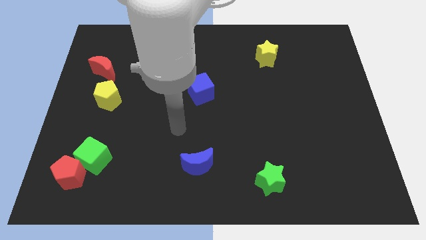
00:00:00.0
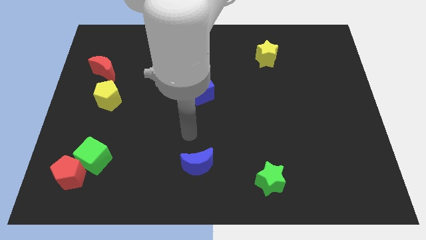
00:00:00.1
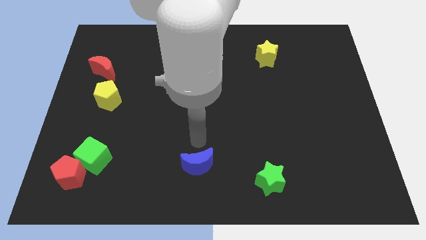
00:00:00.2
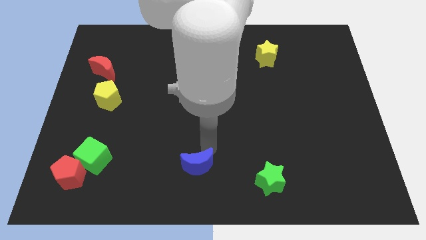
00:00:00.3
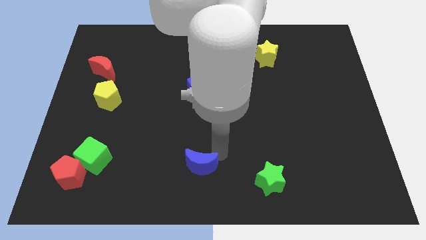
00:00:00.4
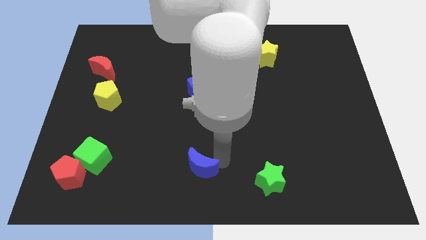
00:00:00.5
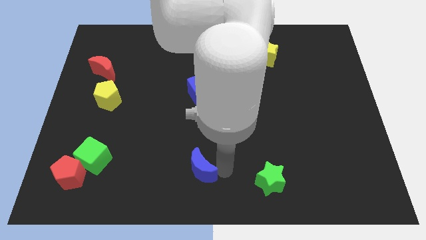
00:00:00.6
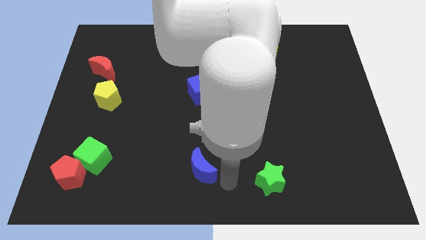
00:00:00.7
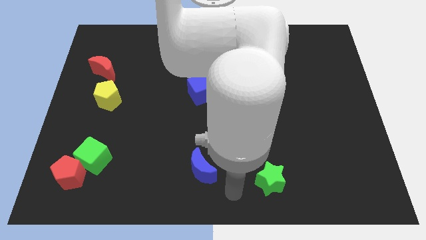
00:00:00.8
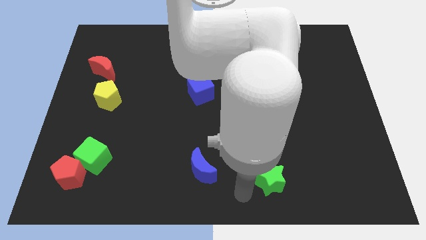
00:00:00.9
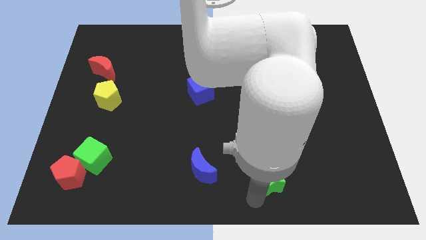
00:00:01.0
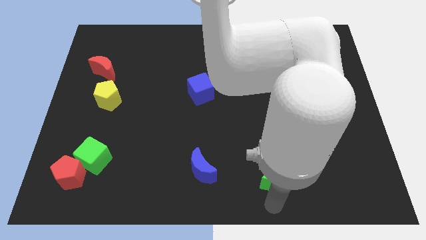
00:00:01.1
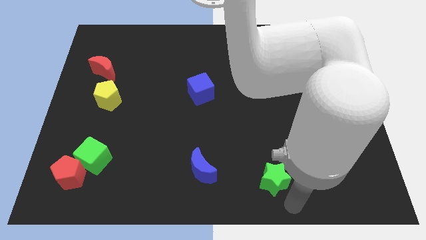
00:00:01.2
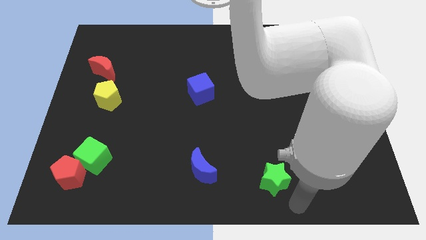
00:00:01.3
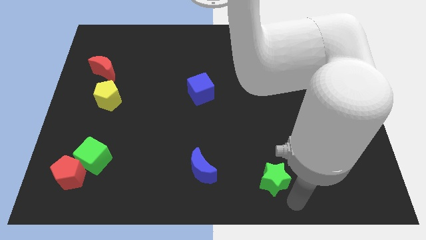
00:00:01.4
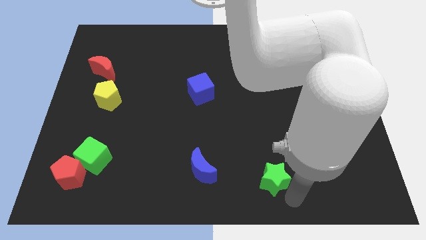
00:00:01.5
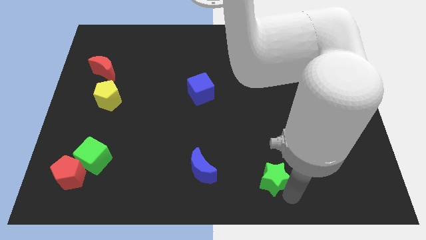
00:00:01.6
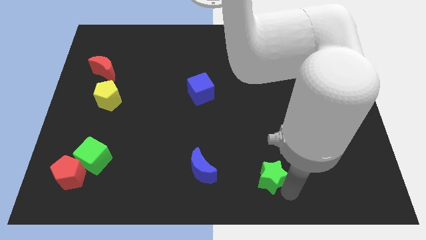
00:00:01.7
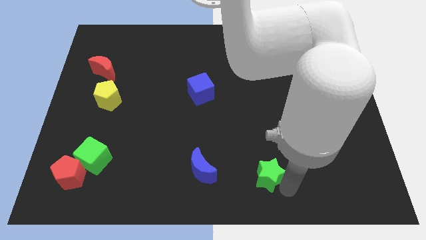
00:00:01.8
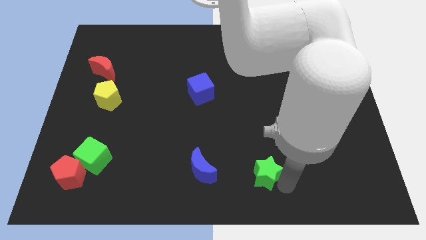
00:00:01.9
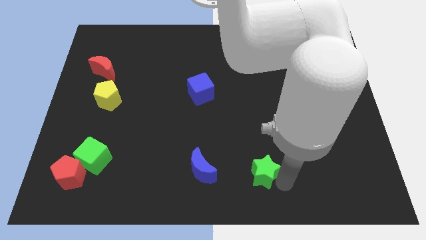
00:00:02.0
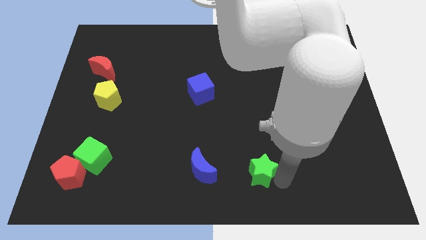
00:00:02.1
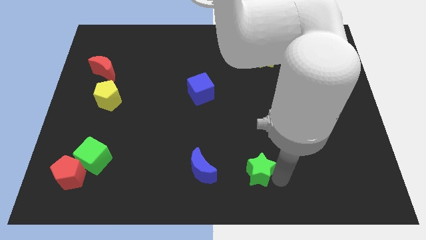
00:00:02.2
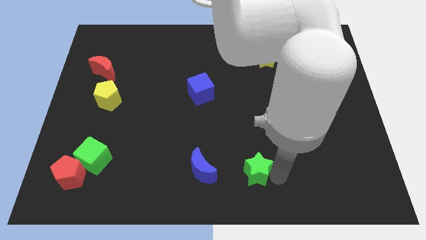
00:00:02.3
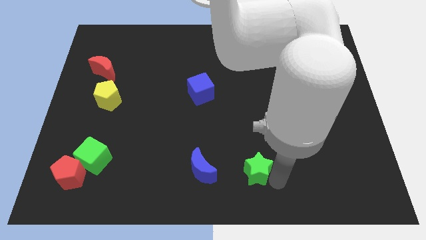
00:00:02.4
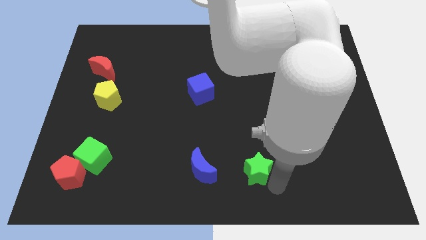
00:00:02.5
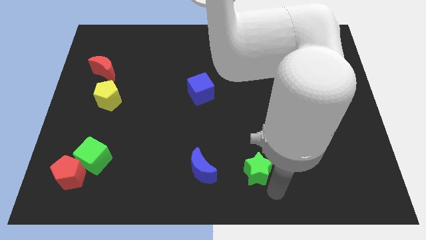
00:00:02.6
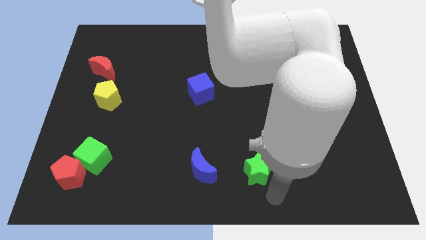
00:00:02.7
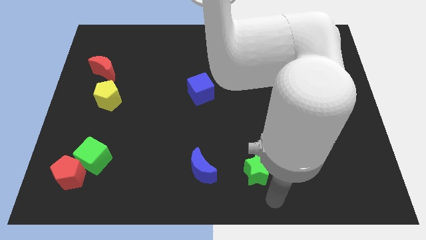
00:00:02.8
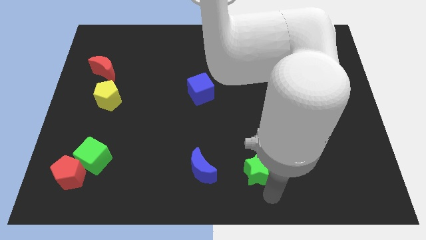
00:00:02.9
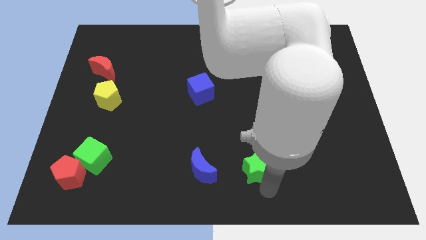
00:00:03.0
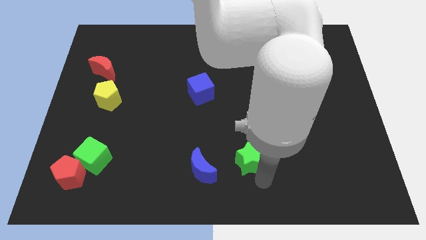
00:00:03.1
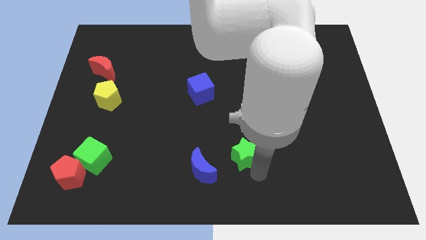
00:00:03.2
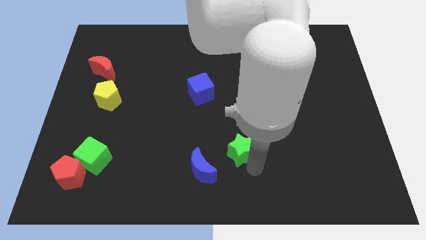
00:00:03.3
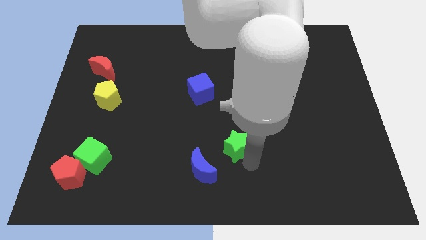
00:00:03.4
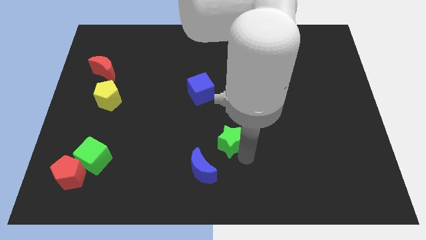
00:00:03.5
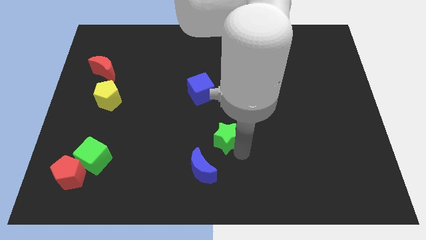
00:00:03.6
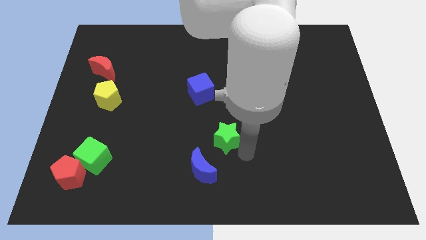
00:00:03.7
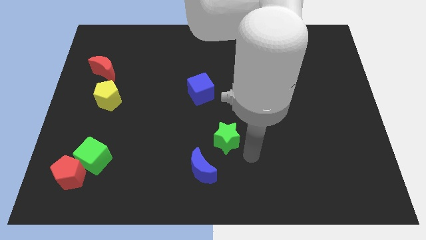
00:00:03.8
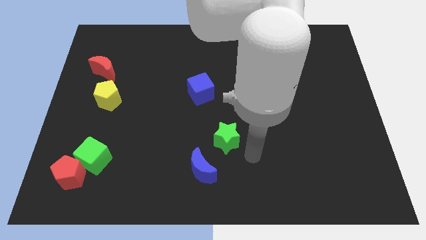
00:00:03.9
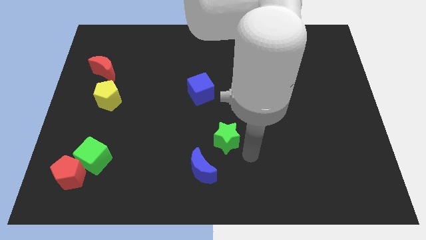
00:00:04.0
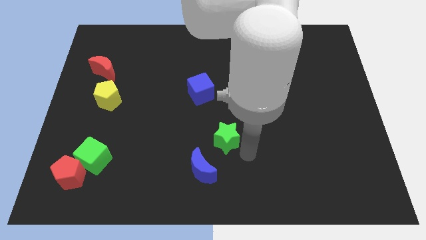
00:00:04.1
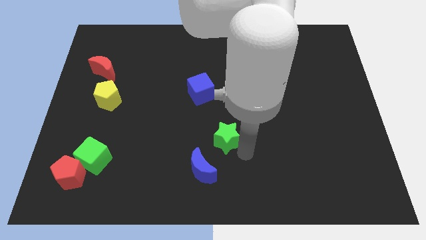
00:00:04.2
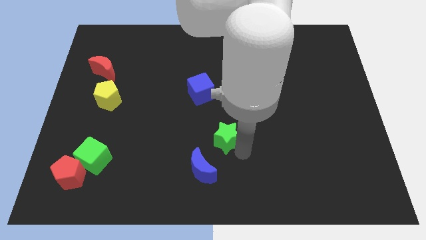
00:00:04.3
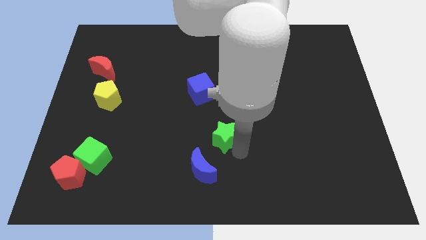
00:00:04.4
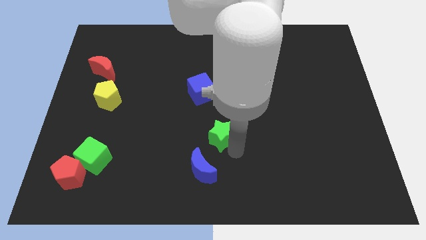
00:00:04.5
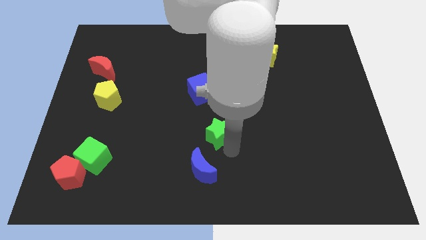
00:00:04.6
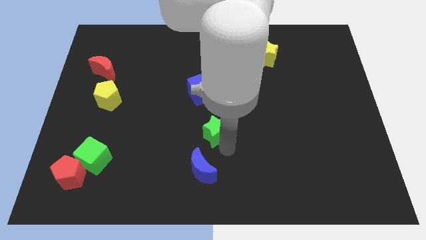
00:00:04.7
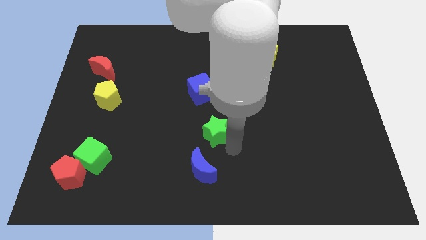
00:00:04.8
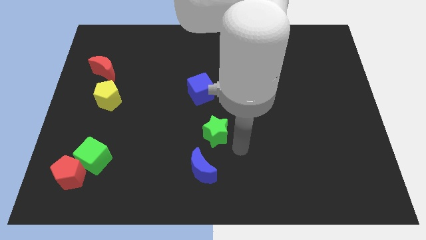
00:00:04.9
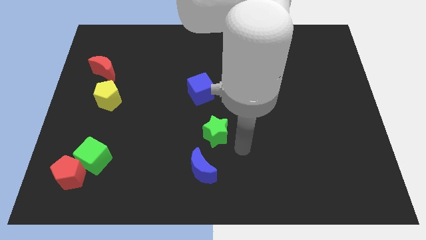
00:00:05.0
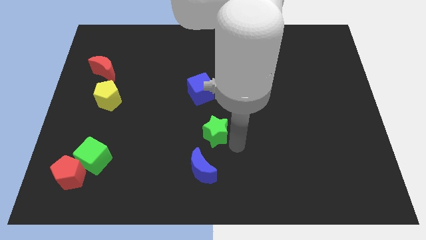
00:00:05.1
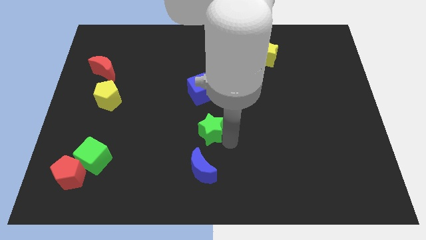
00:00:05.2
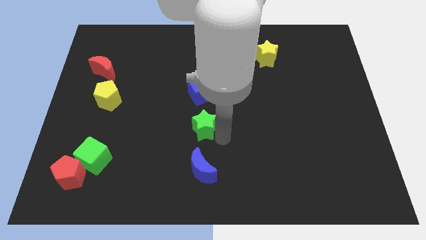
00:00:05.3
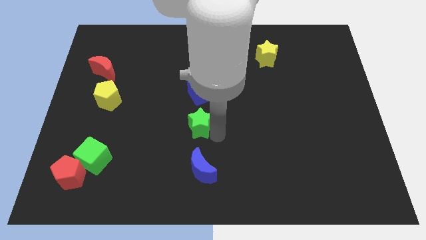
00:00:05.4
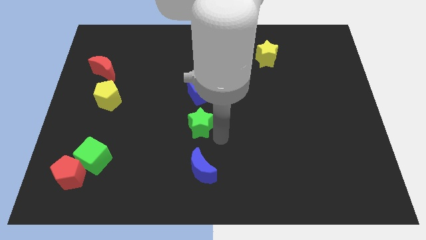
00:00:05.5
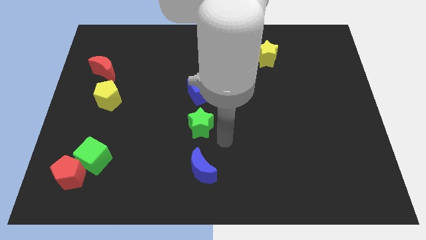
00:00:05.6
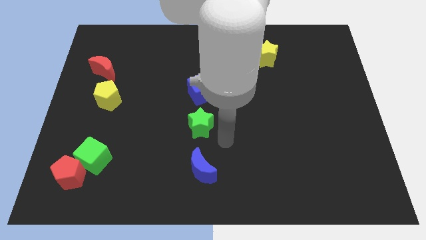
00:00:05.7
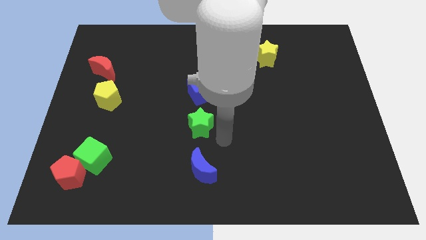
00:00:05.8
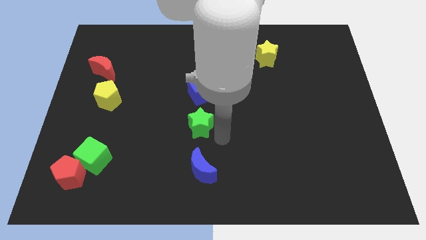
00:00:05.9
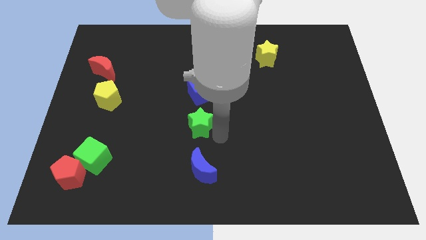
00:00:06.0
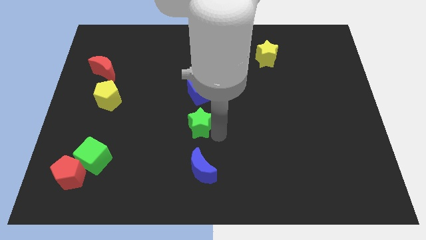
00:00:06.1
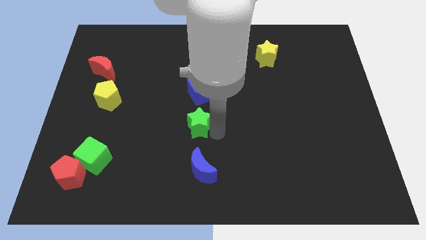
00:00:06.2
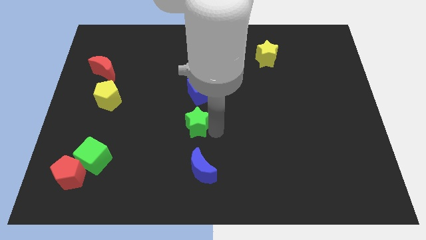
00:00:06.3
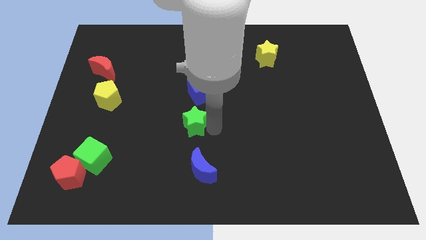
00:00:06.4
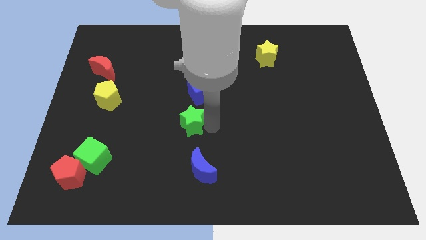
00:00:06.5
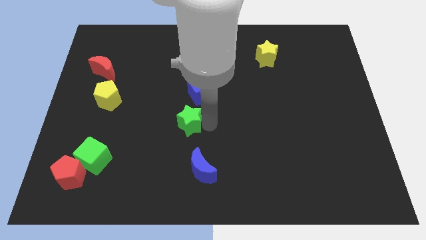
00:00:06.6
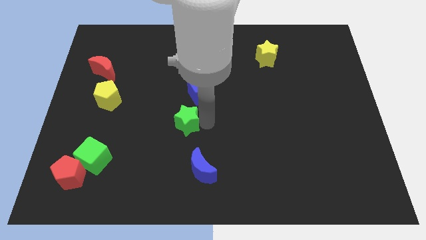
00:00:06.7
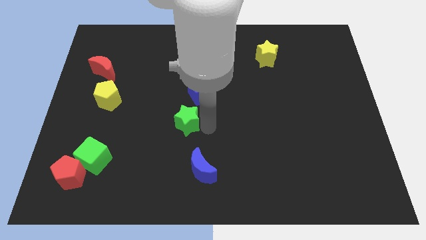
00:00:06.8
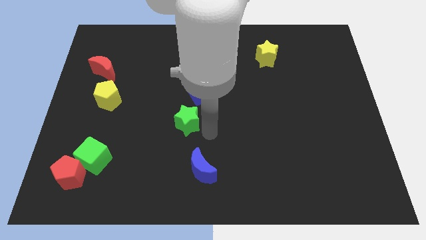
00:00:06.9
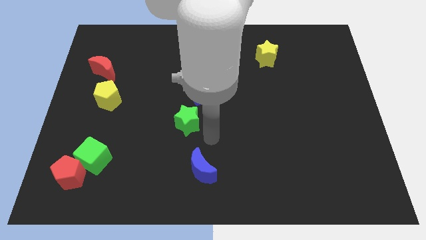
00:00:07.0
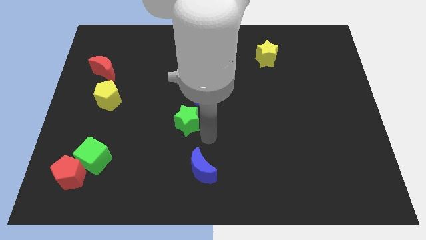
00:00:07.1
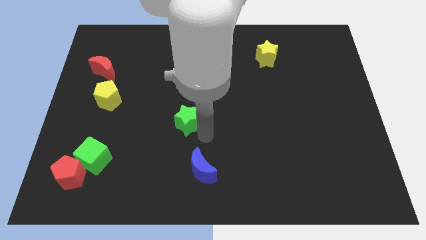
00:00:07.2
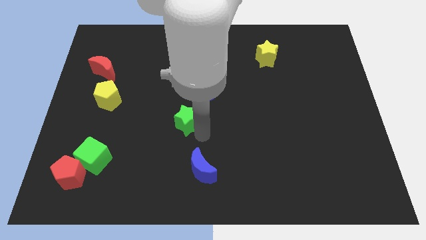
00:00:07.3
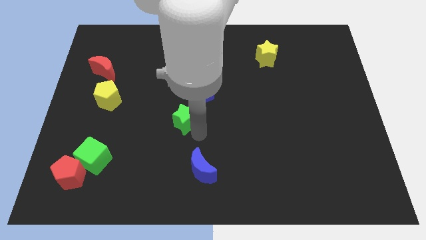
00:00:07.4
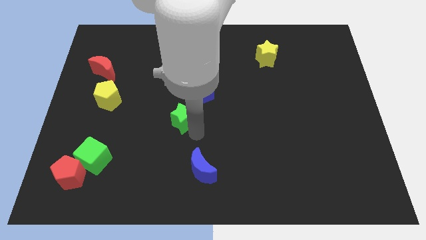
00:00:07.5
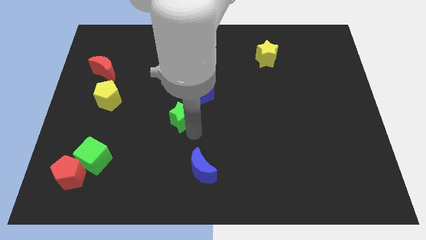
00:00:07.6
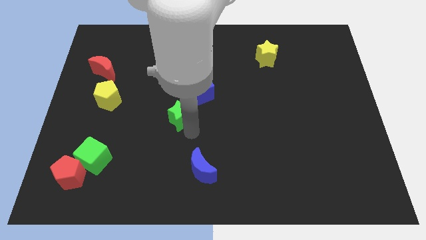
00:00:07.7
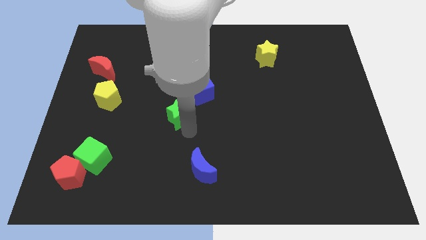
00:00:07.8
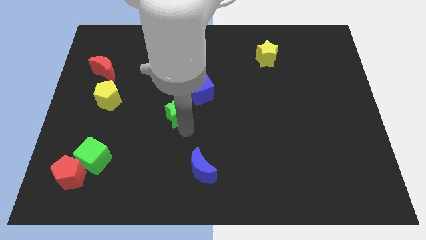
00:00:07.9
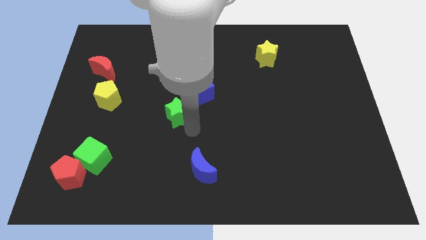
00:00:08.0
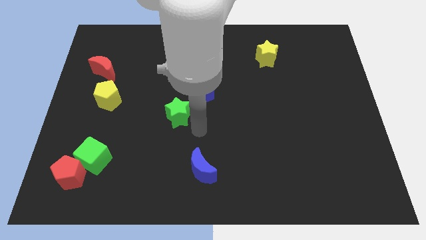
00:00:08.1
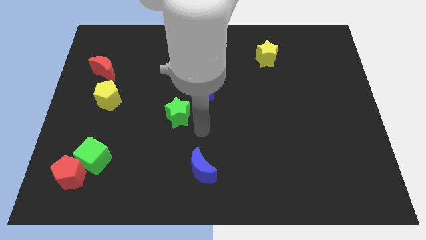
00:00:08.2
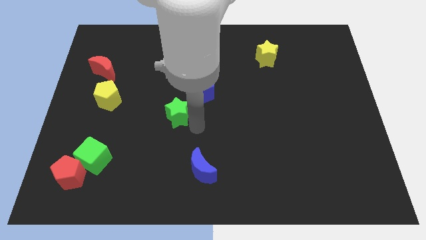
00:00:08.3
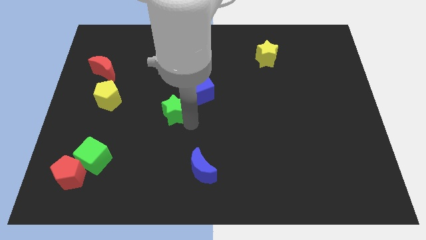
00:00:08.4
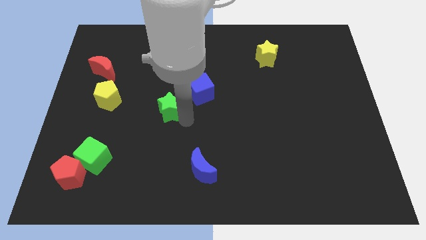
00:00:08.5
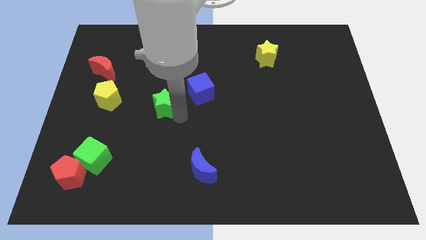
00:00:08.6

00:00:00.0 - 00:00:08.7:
put the green star right of the yellow pentagon
